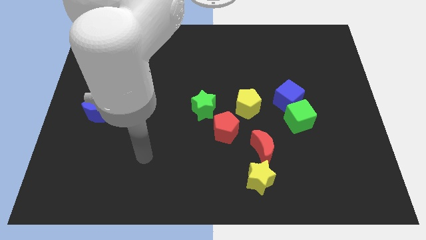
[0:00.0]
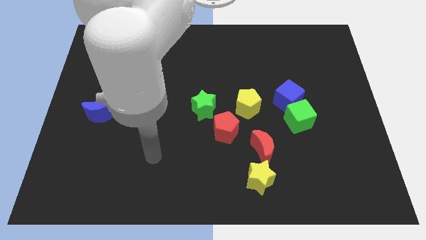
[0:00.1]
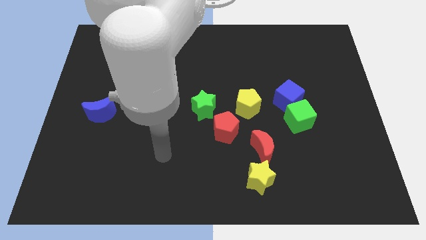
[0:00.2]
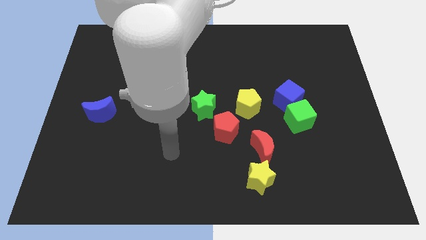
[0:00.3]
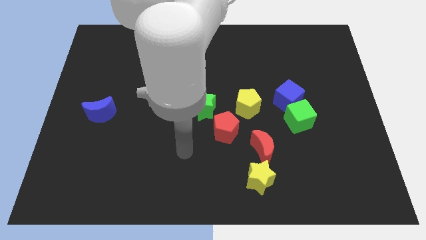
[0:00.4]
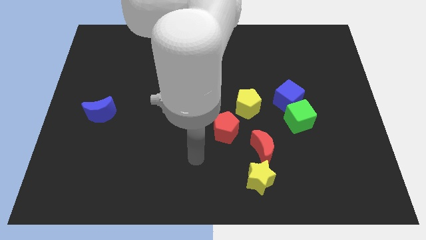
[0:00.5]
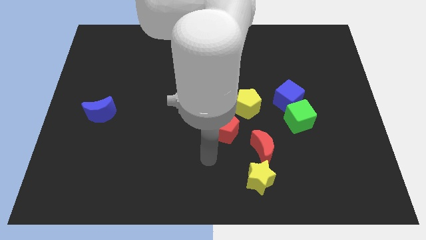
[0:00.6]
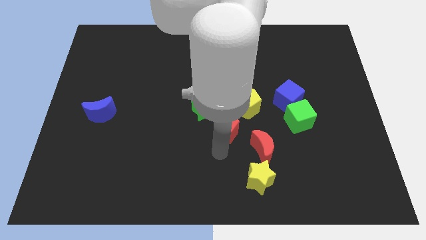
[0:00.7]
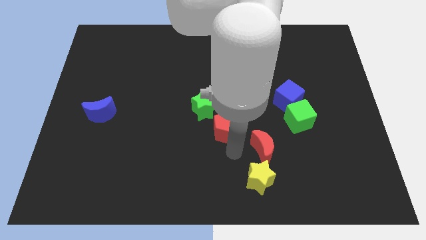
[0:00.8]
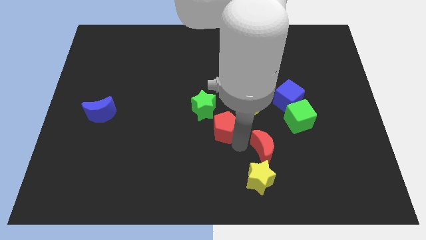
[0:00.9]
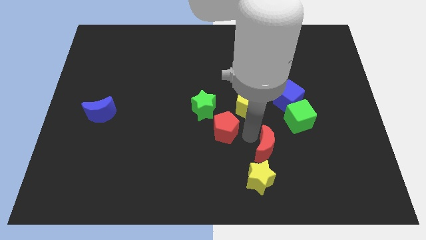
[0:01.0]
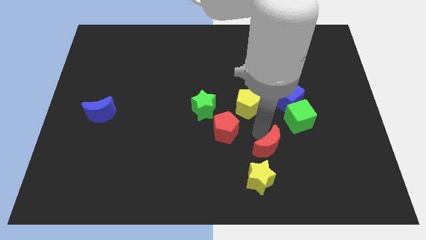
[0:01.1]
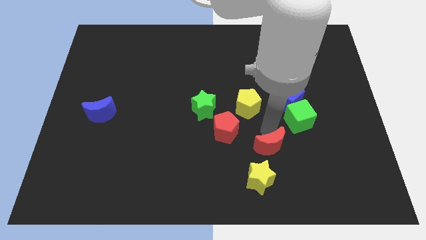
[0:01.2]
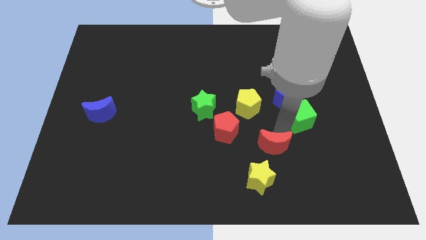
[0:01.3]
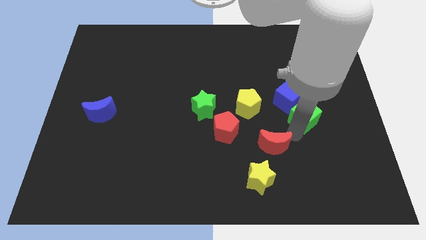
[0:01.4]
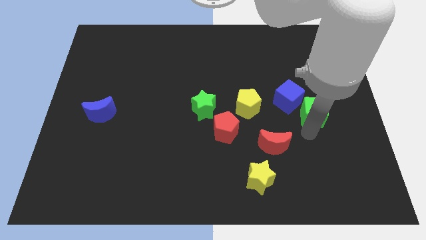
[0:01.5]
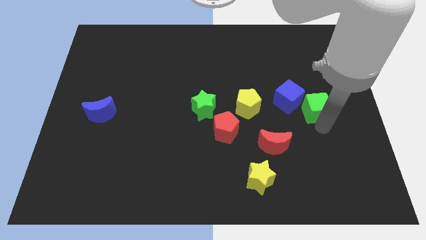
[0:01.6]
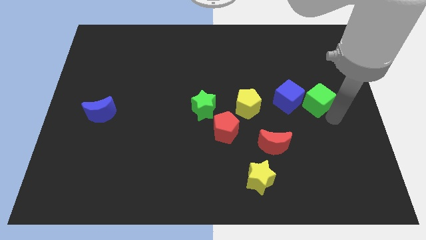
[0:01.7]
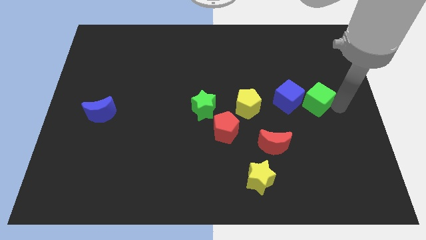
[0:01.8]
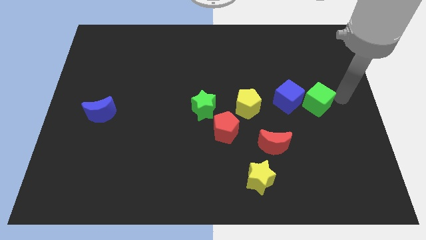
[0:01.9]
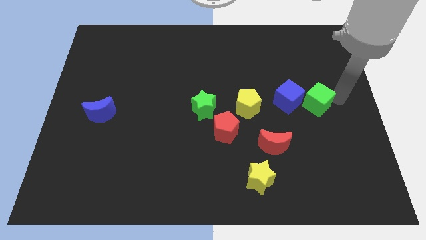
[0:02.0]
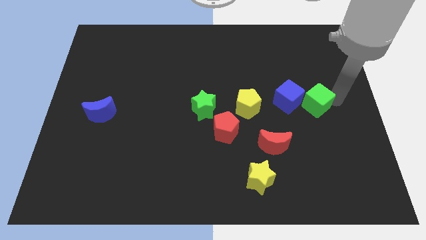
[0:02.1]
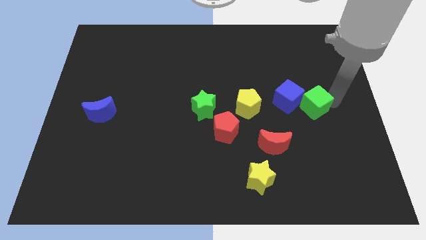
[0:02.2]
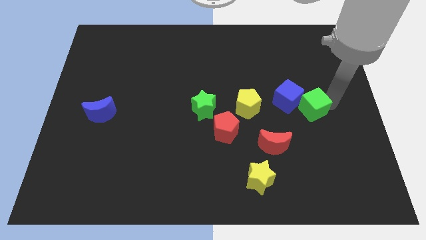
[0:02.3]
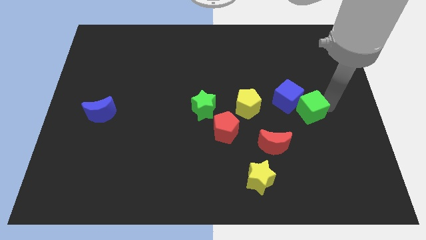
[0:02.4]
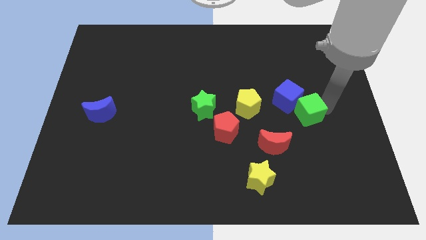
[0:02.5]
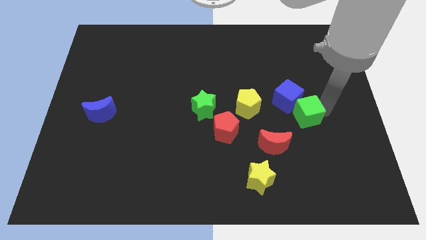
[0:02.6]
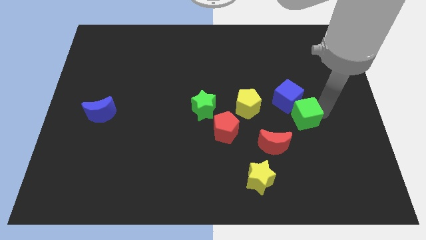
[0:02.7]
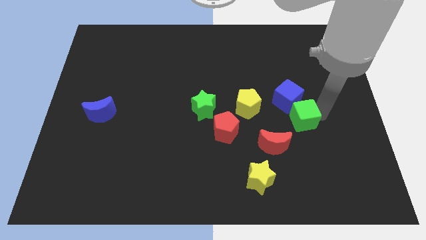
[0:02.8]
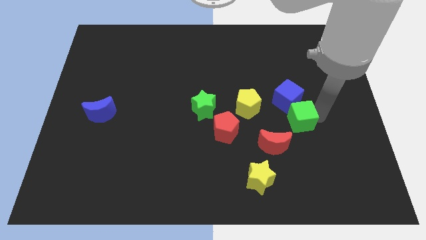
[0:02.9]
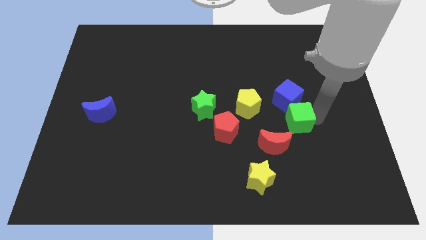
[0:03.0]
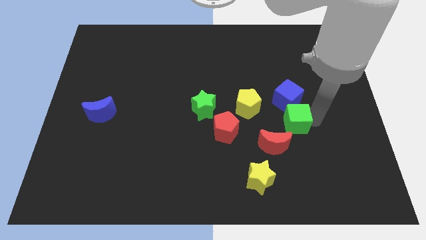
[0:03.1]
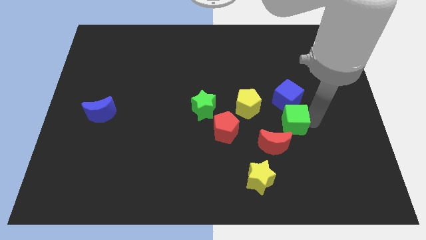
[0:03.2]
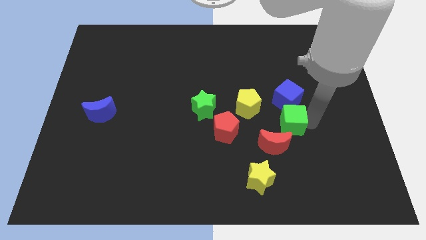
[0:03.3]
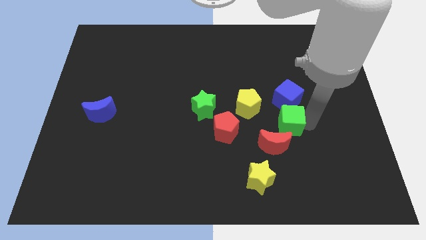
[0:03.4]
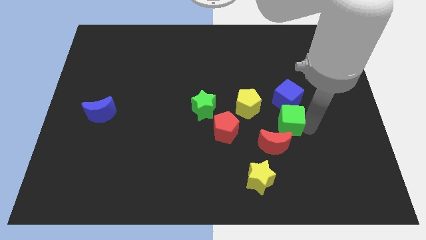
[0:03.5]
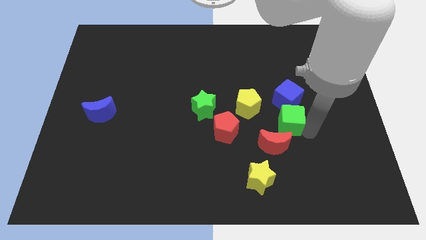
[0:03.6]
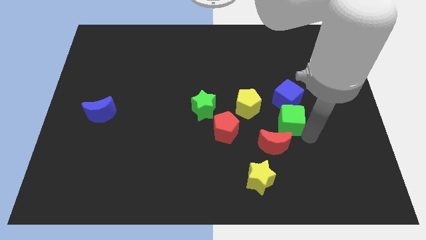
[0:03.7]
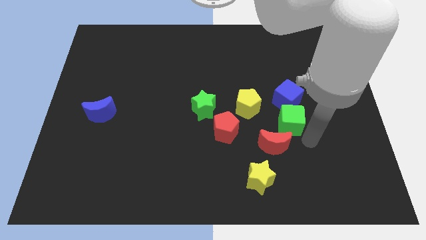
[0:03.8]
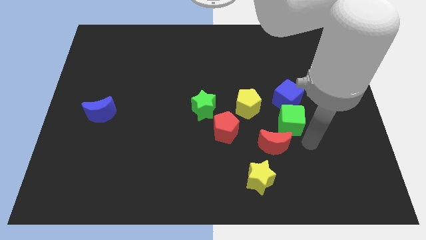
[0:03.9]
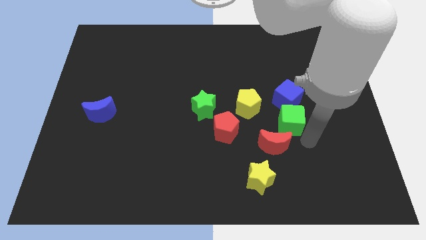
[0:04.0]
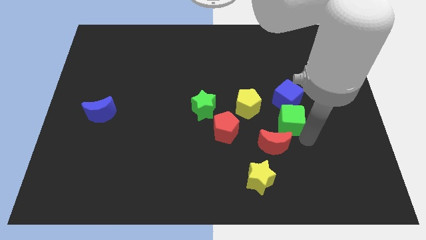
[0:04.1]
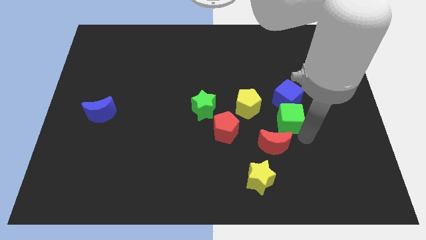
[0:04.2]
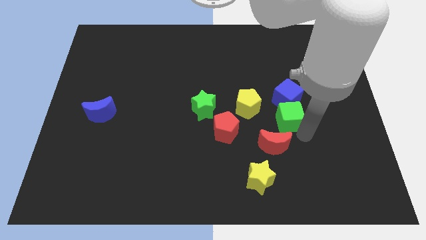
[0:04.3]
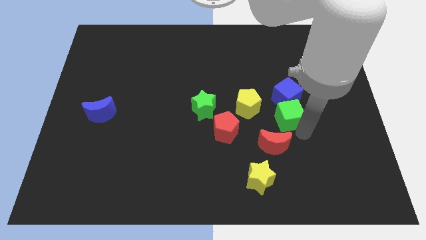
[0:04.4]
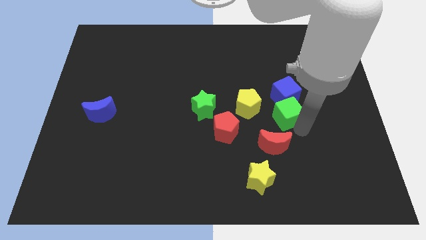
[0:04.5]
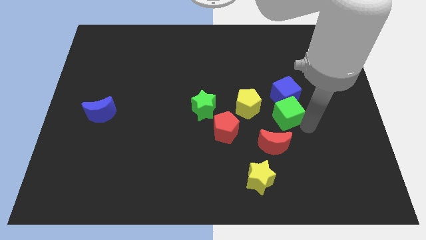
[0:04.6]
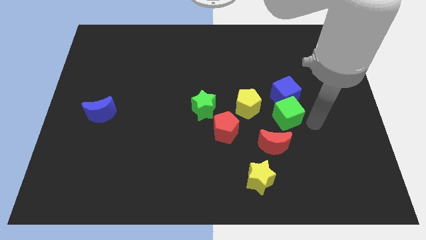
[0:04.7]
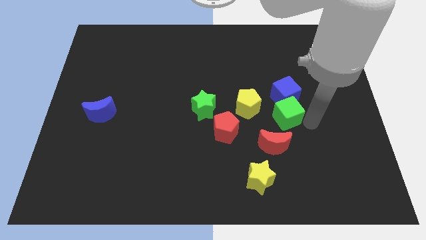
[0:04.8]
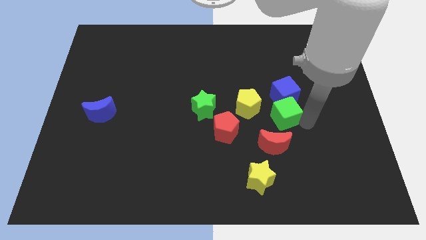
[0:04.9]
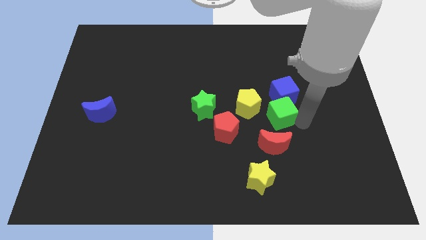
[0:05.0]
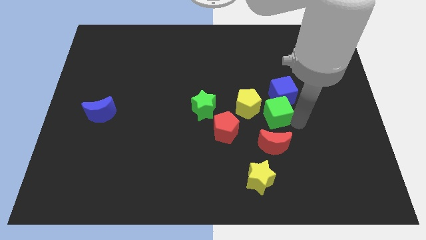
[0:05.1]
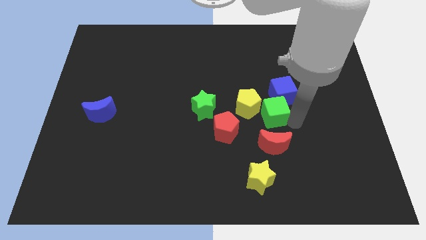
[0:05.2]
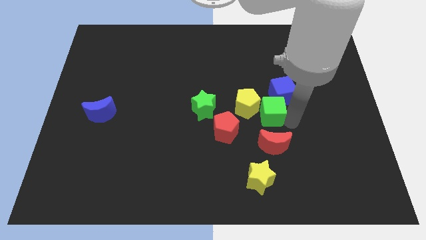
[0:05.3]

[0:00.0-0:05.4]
move the green cube towards the yellow pentagon

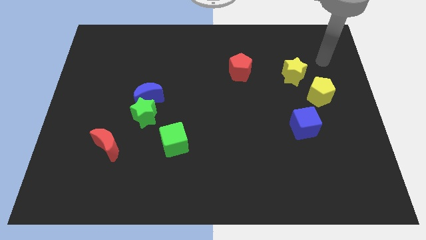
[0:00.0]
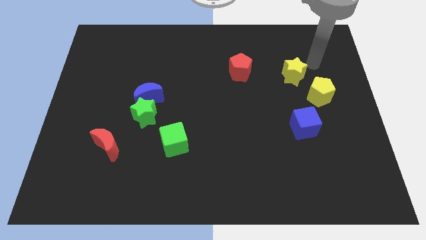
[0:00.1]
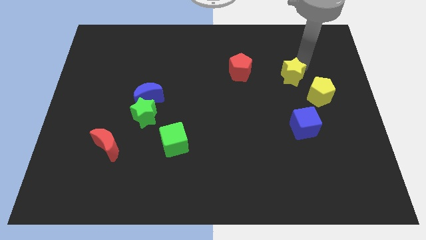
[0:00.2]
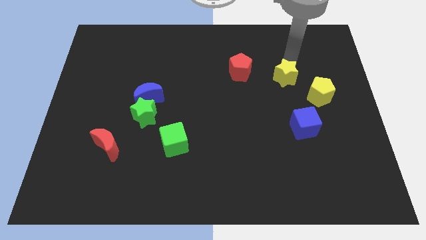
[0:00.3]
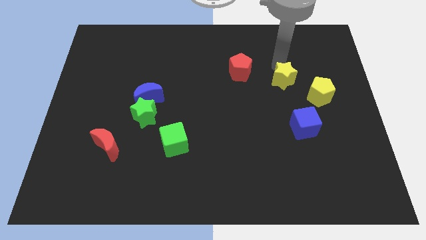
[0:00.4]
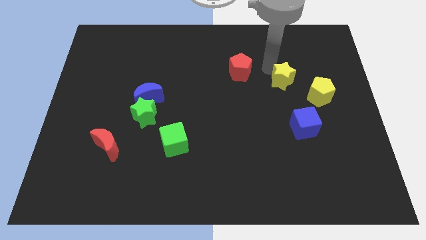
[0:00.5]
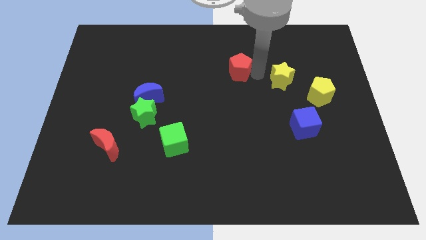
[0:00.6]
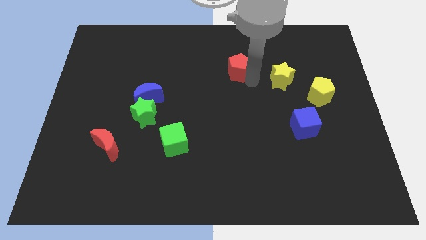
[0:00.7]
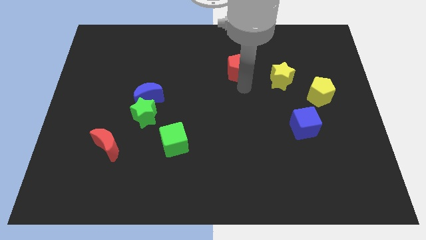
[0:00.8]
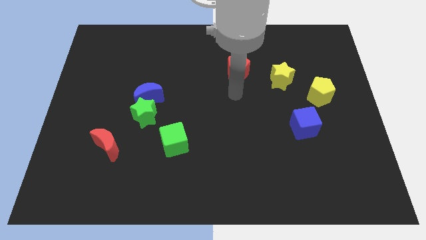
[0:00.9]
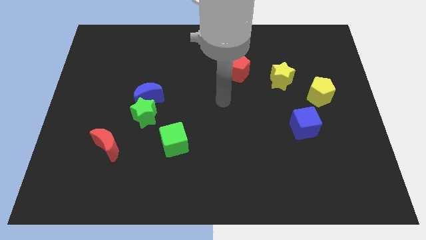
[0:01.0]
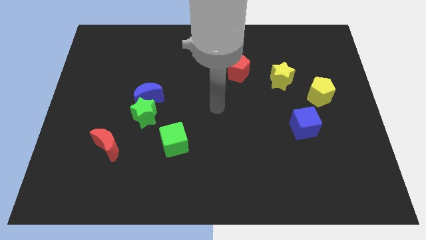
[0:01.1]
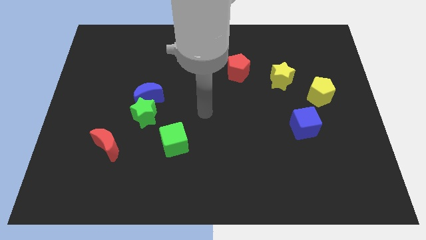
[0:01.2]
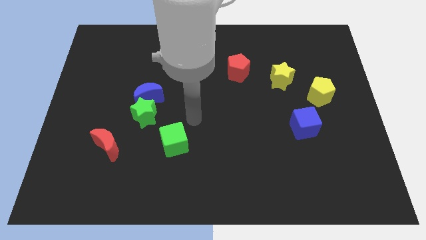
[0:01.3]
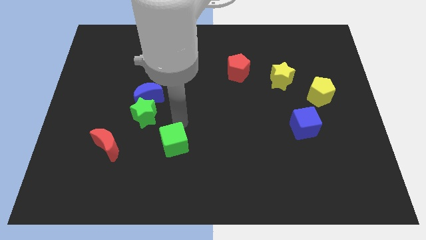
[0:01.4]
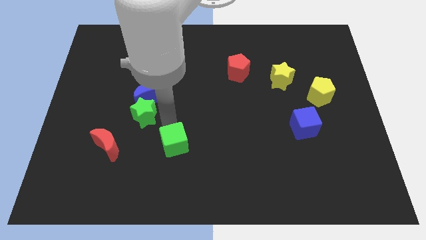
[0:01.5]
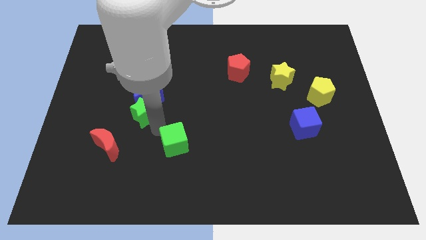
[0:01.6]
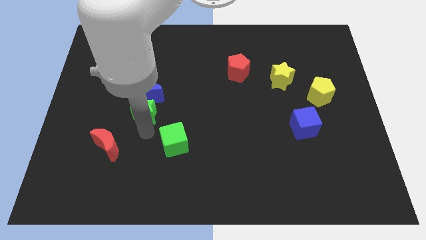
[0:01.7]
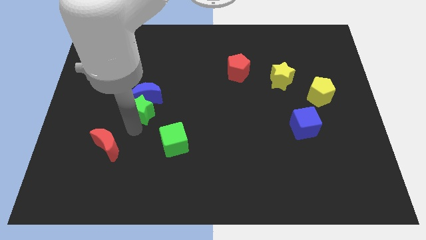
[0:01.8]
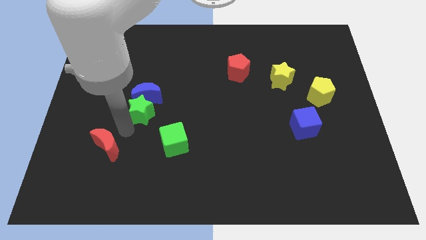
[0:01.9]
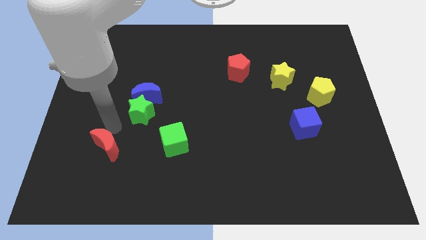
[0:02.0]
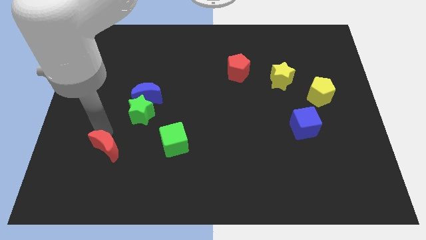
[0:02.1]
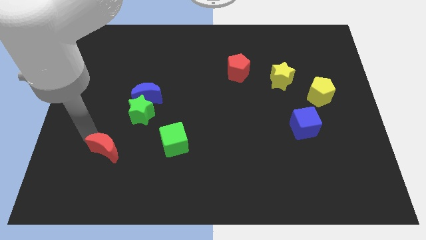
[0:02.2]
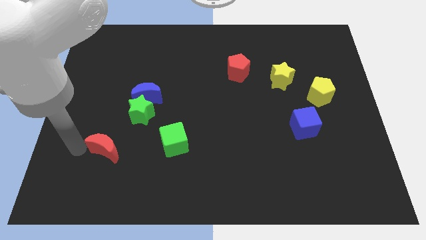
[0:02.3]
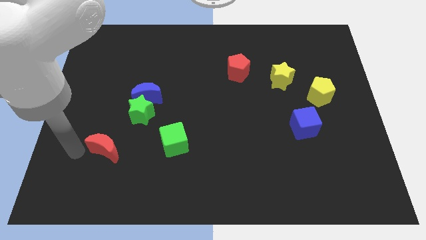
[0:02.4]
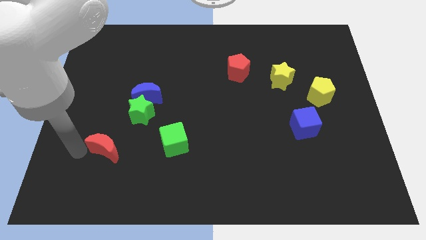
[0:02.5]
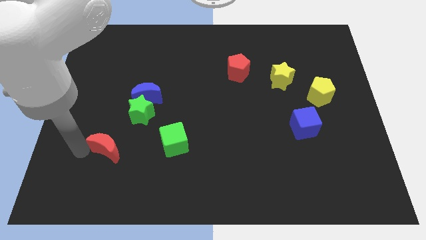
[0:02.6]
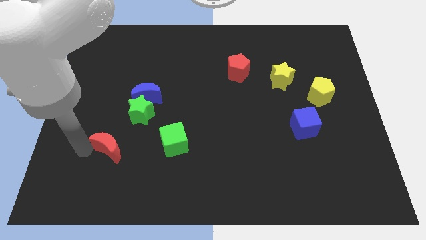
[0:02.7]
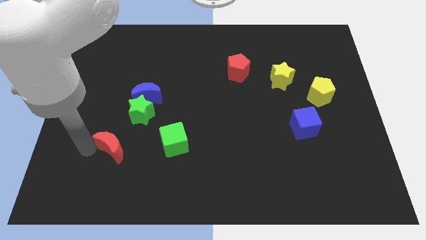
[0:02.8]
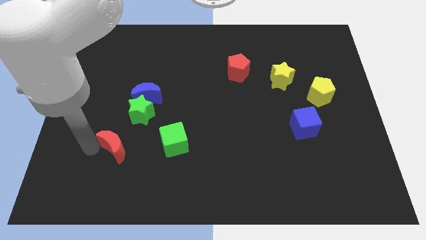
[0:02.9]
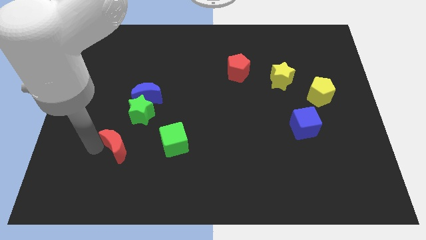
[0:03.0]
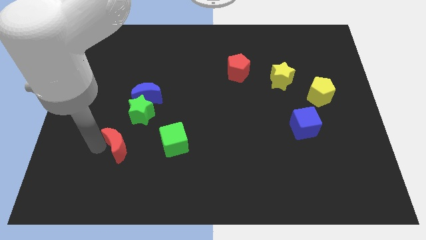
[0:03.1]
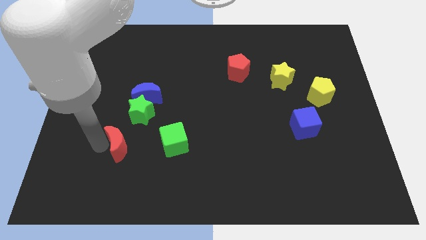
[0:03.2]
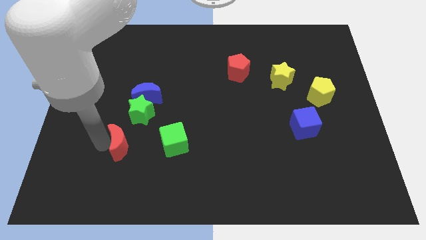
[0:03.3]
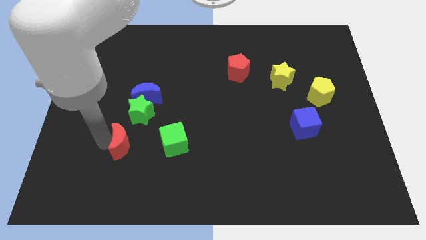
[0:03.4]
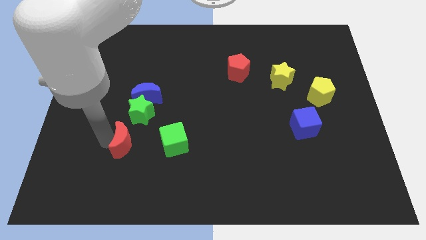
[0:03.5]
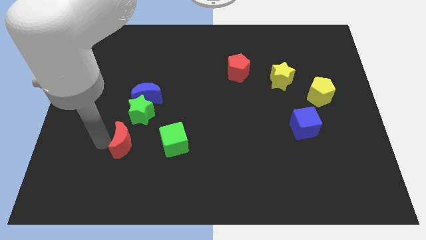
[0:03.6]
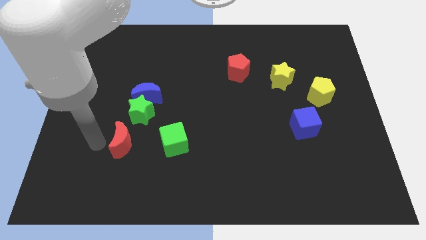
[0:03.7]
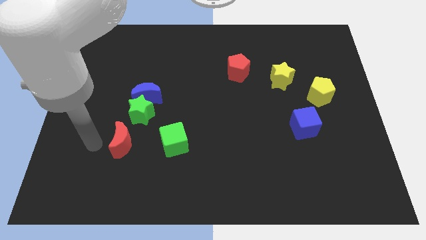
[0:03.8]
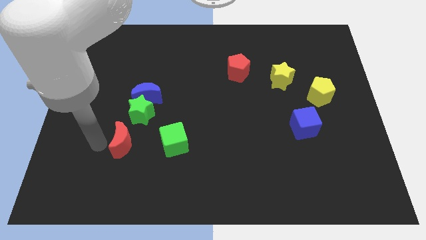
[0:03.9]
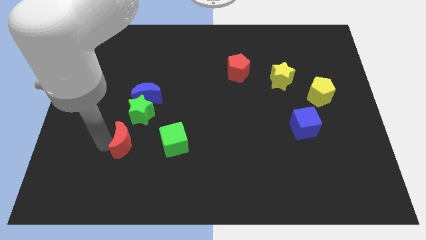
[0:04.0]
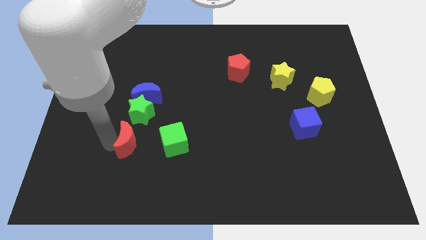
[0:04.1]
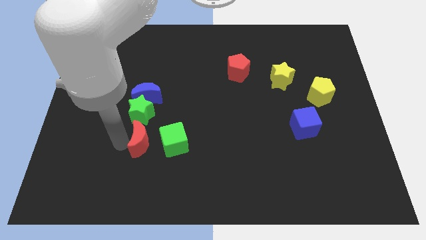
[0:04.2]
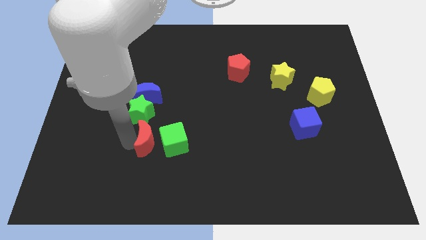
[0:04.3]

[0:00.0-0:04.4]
slide the red moon to the green cube
